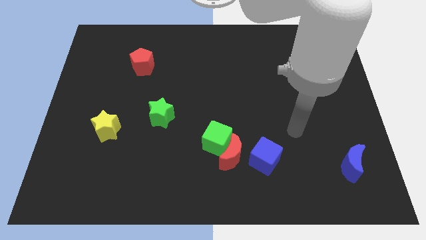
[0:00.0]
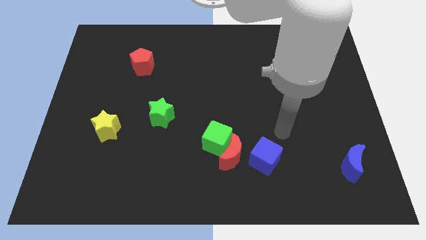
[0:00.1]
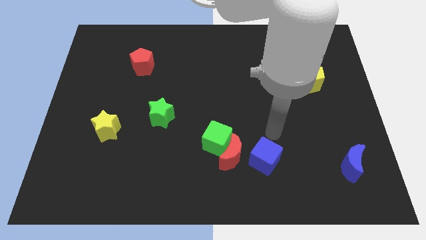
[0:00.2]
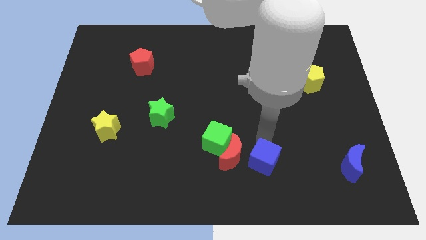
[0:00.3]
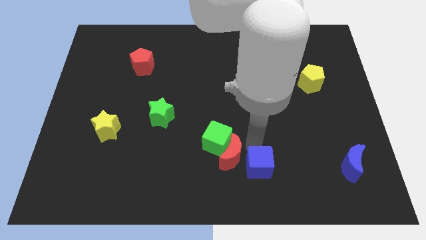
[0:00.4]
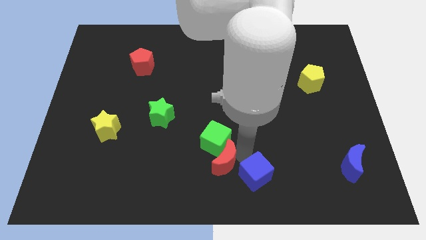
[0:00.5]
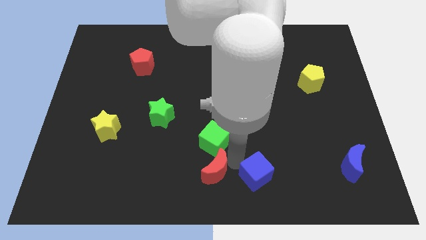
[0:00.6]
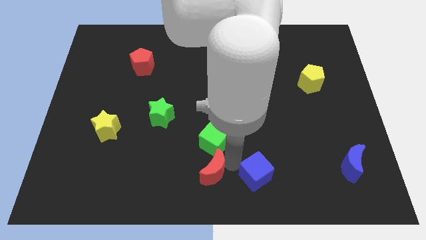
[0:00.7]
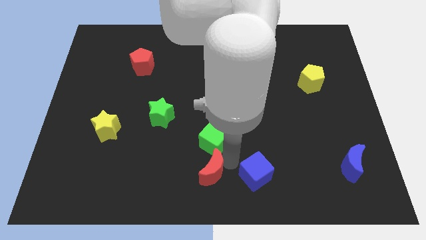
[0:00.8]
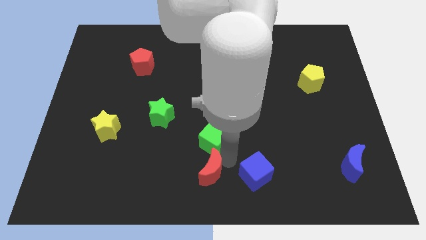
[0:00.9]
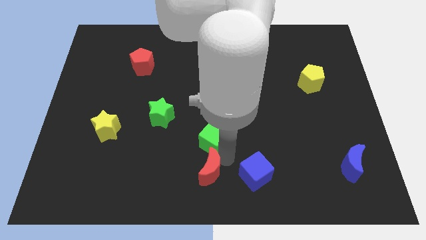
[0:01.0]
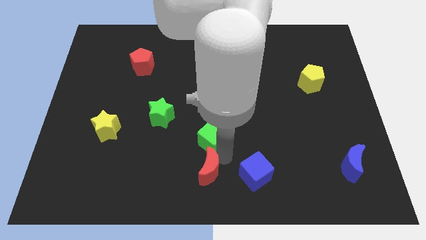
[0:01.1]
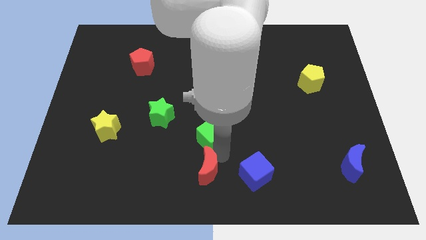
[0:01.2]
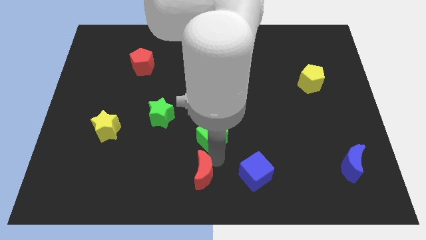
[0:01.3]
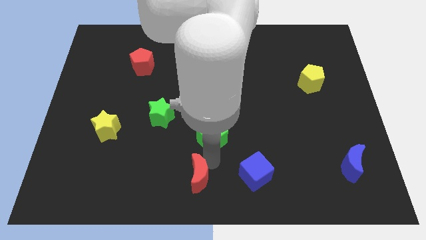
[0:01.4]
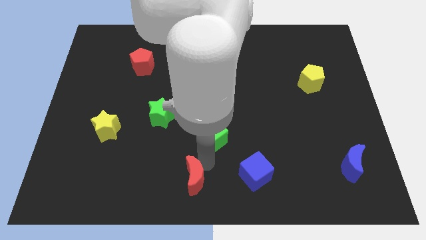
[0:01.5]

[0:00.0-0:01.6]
separate the green cube from the red moon

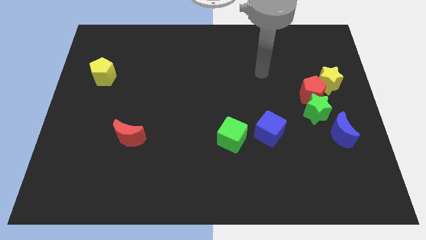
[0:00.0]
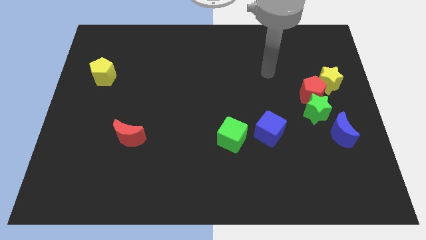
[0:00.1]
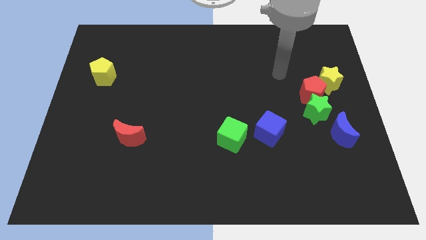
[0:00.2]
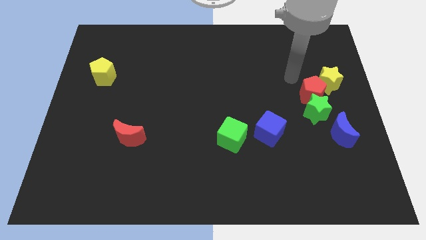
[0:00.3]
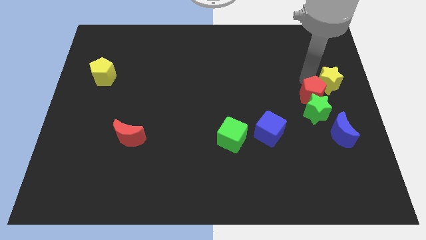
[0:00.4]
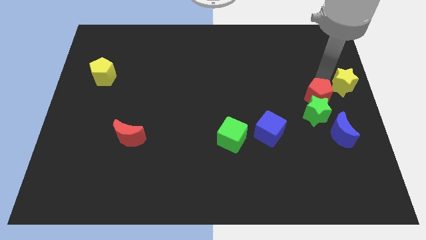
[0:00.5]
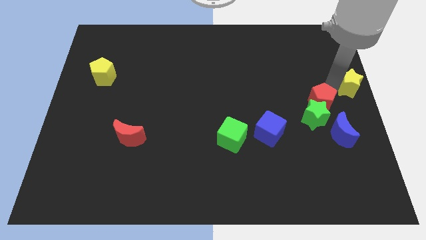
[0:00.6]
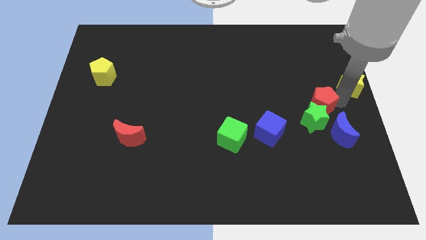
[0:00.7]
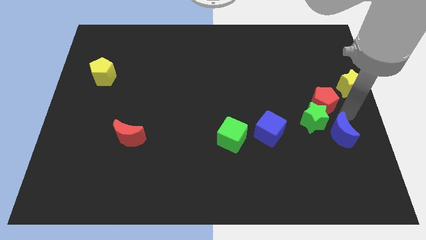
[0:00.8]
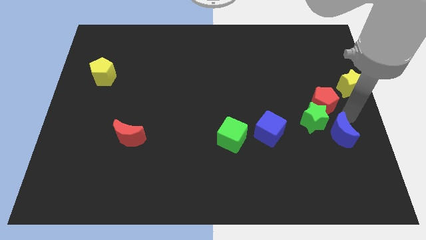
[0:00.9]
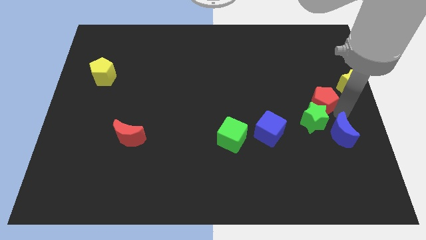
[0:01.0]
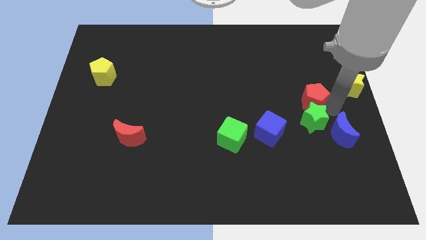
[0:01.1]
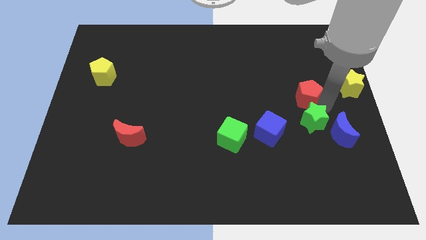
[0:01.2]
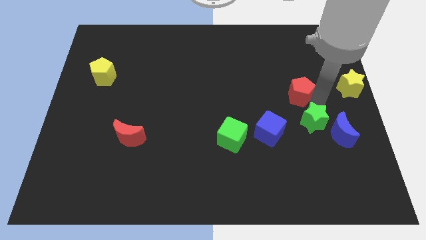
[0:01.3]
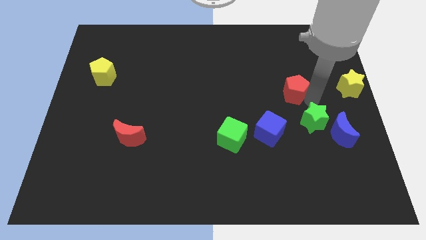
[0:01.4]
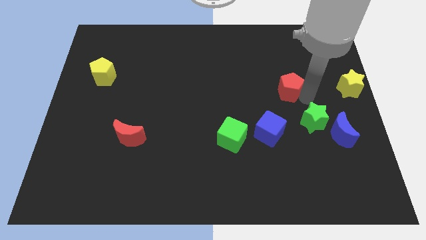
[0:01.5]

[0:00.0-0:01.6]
move the red pentagon away from the green star and yellow star

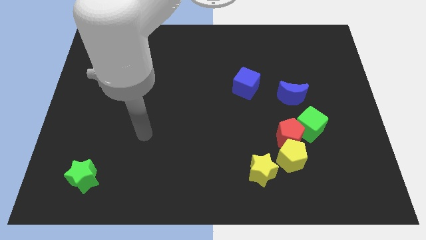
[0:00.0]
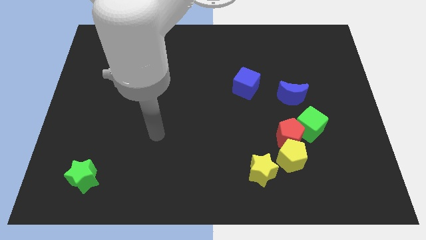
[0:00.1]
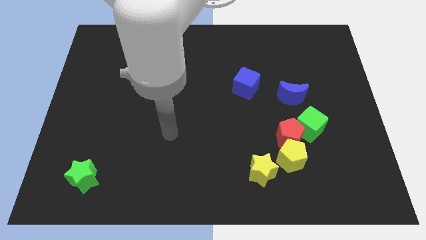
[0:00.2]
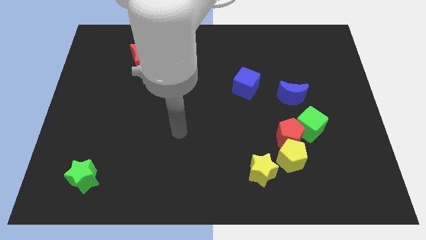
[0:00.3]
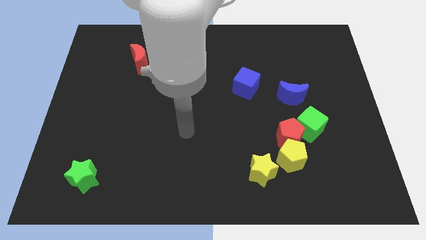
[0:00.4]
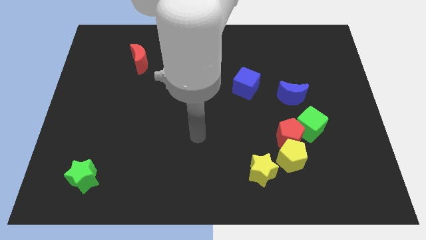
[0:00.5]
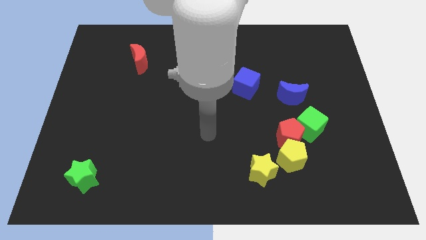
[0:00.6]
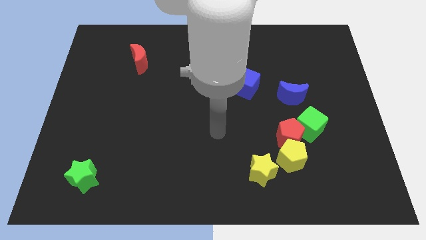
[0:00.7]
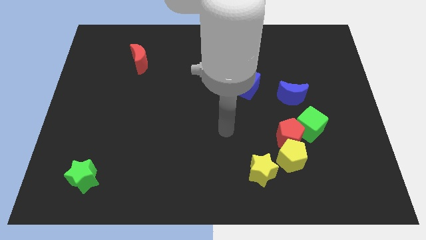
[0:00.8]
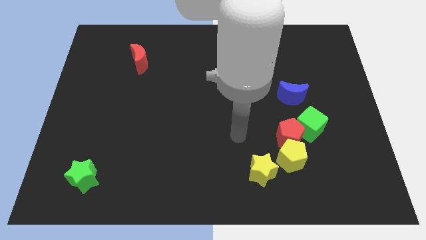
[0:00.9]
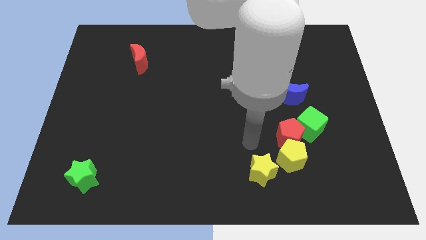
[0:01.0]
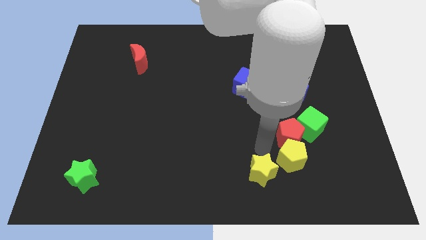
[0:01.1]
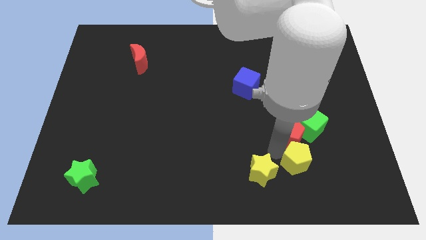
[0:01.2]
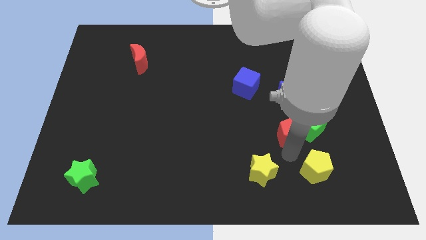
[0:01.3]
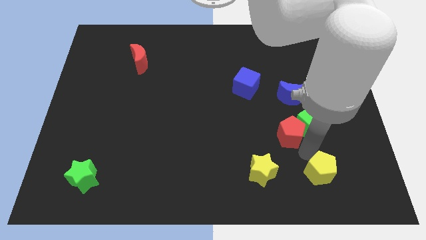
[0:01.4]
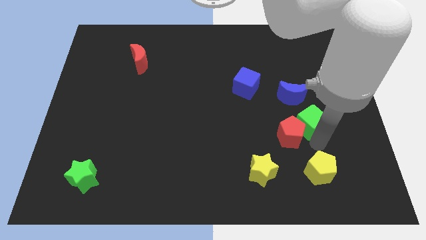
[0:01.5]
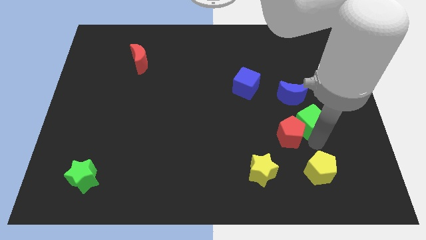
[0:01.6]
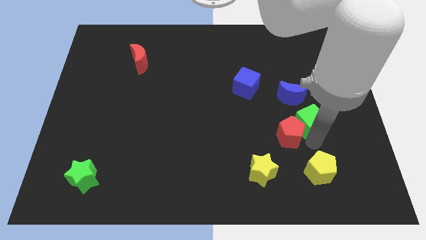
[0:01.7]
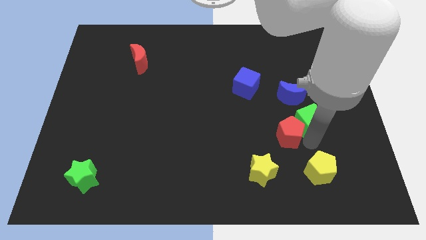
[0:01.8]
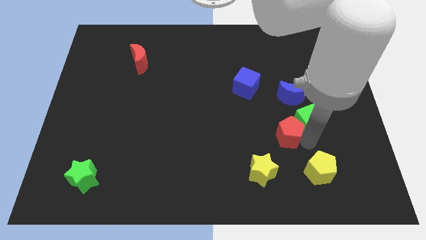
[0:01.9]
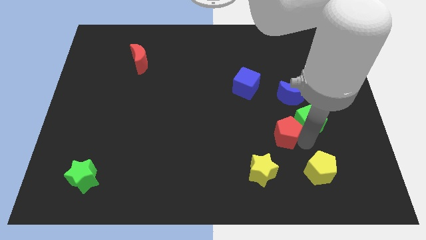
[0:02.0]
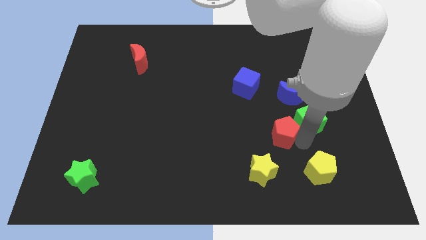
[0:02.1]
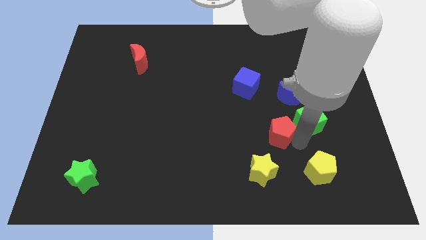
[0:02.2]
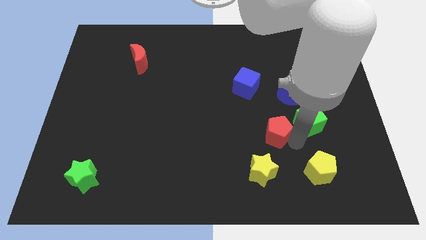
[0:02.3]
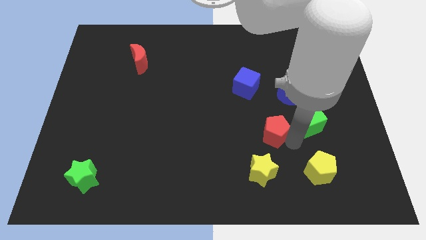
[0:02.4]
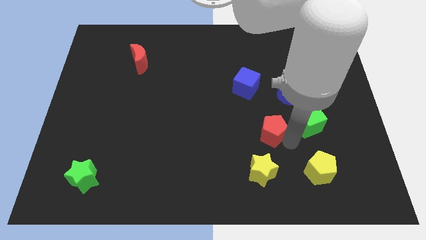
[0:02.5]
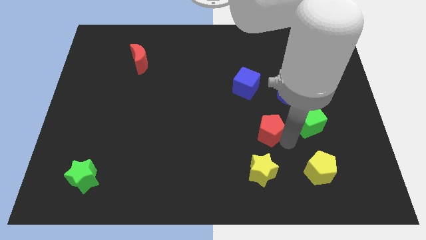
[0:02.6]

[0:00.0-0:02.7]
separate the red pentagon from the yellow pentagon and green cube

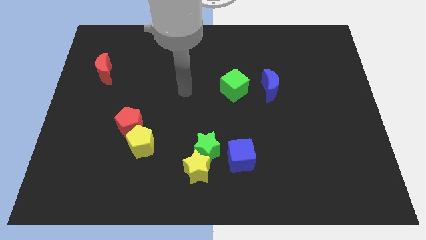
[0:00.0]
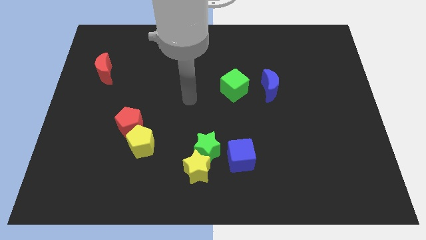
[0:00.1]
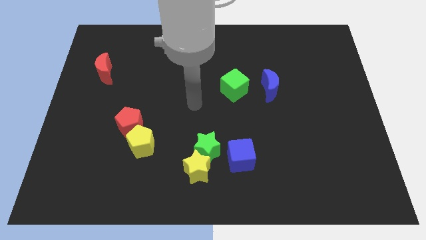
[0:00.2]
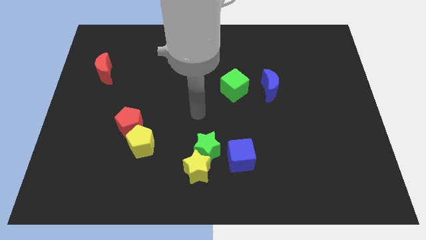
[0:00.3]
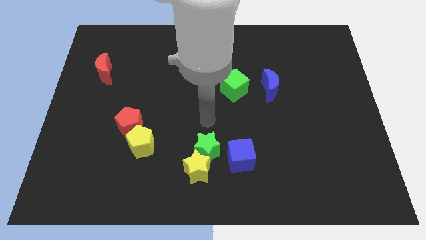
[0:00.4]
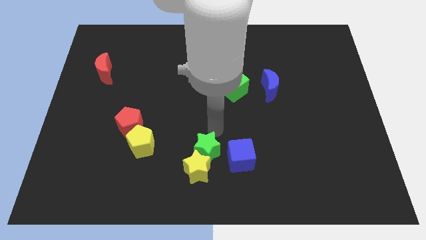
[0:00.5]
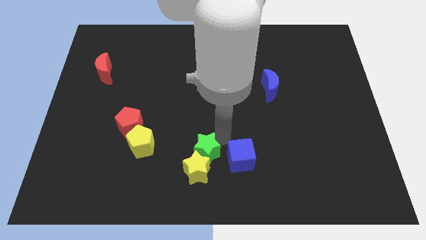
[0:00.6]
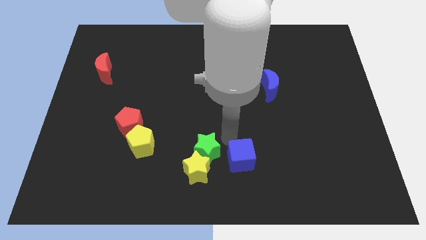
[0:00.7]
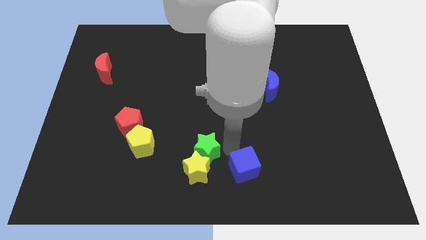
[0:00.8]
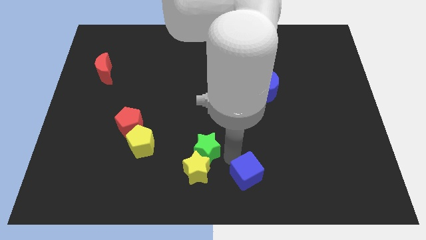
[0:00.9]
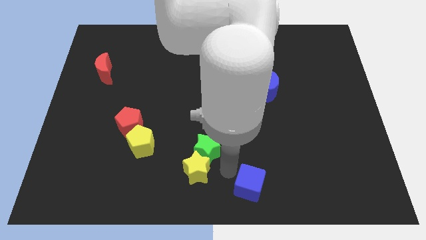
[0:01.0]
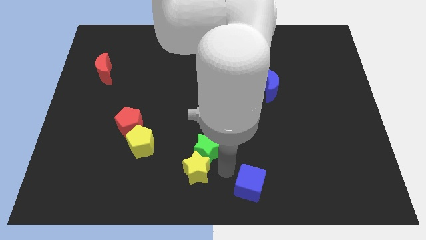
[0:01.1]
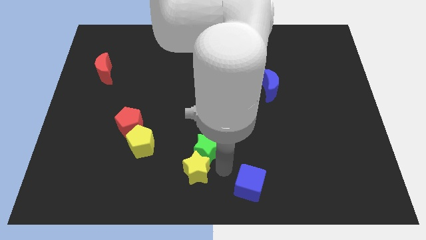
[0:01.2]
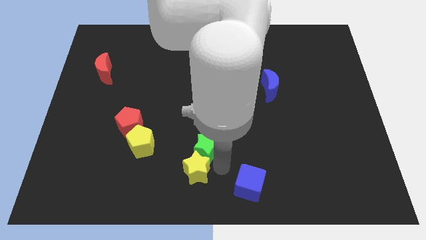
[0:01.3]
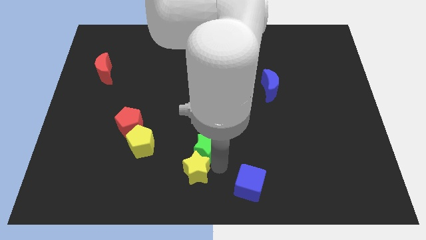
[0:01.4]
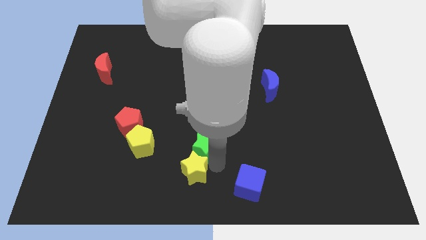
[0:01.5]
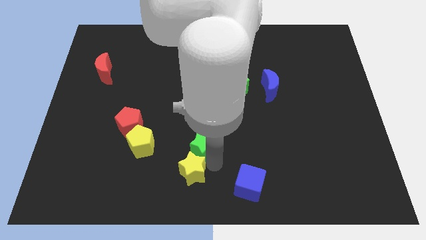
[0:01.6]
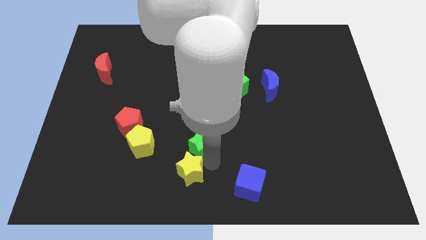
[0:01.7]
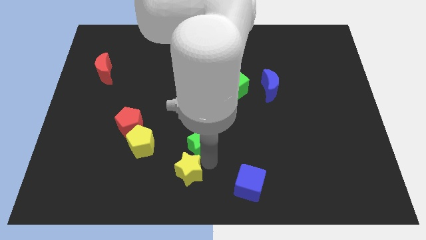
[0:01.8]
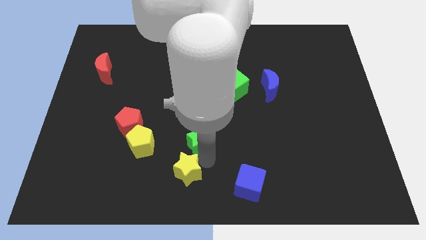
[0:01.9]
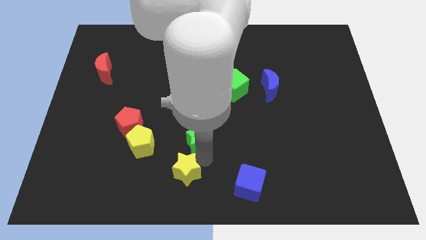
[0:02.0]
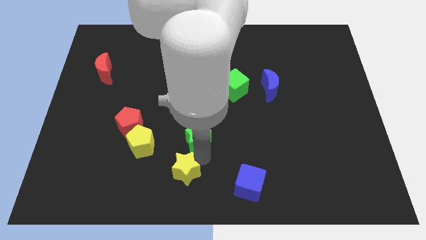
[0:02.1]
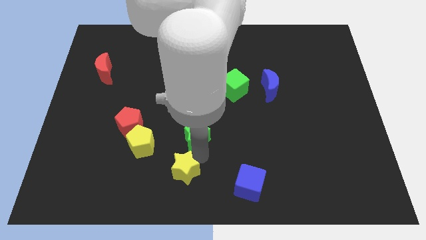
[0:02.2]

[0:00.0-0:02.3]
pull the green star apart from the yellow star and blue cube

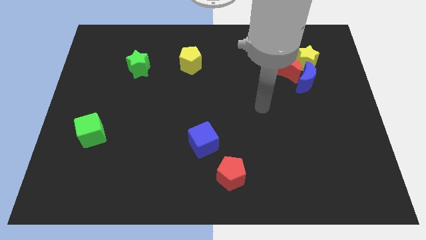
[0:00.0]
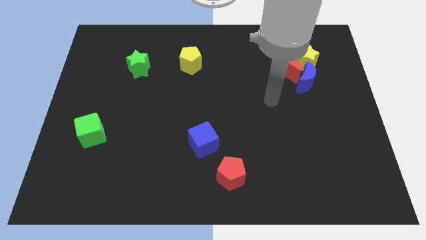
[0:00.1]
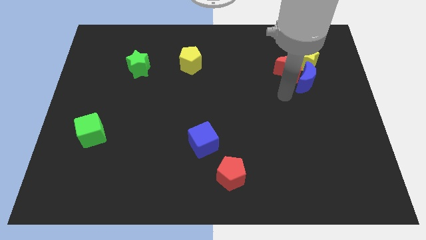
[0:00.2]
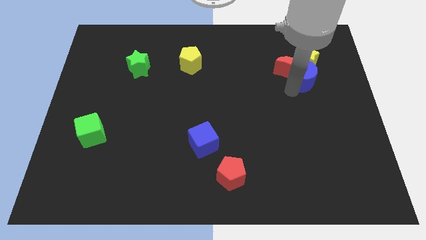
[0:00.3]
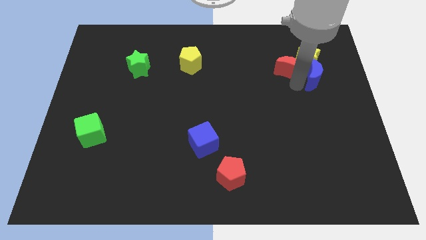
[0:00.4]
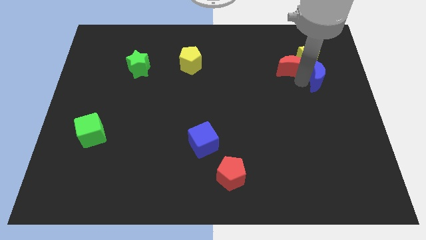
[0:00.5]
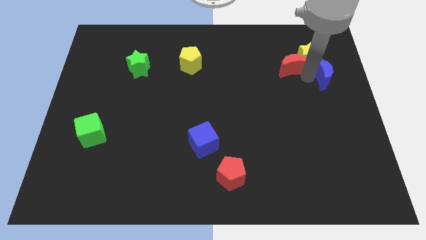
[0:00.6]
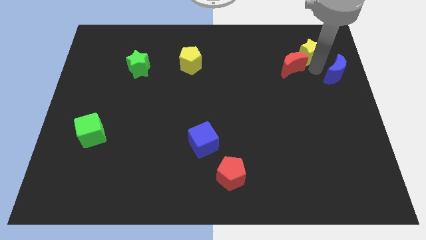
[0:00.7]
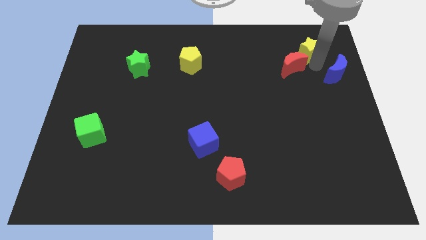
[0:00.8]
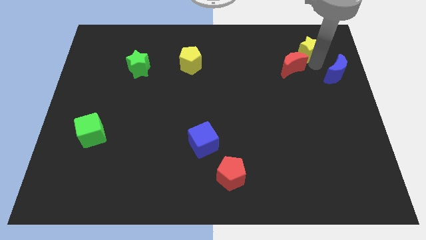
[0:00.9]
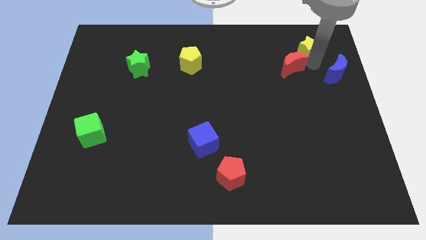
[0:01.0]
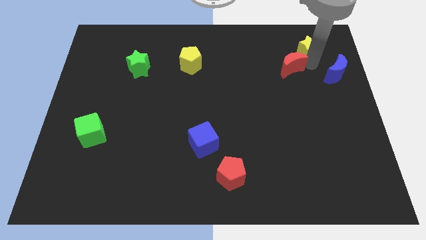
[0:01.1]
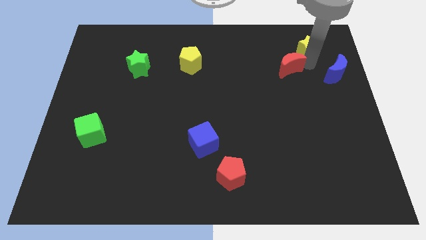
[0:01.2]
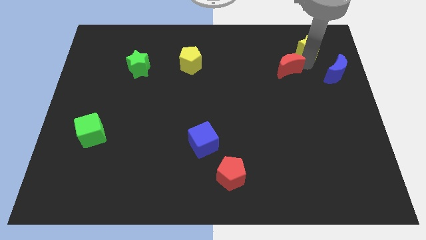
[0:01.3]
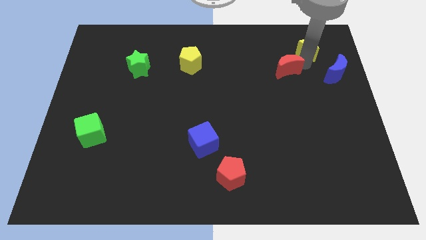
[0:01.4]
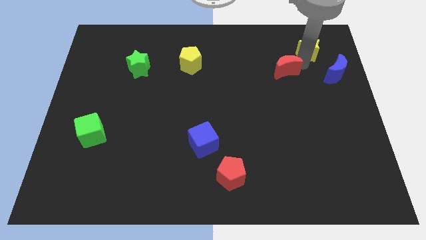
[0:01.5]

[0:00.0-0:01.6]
separate the red moon from the blue moon and yellow star
